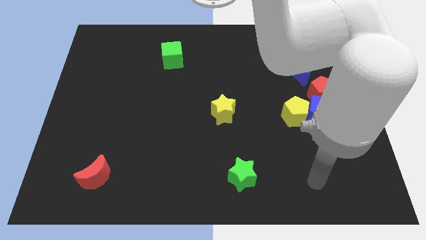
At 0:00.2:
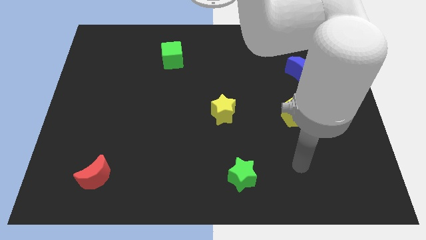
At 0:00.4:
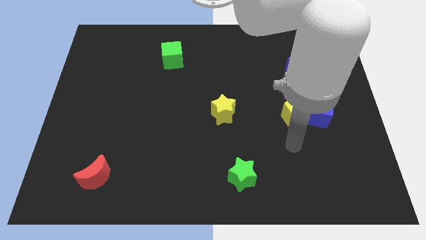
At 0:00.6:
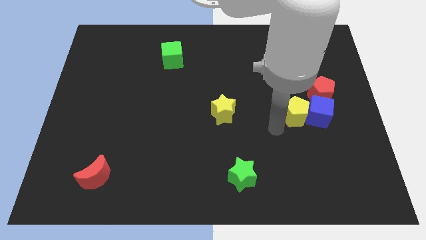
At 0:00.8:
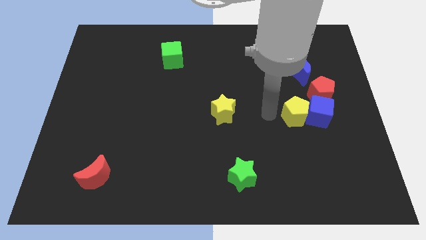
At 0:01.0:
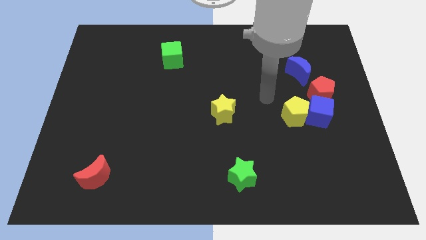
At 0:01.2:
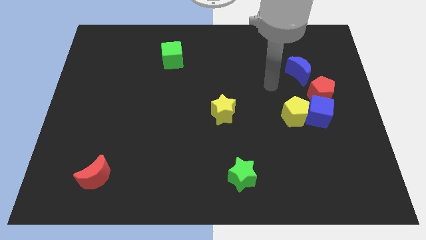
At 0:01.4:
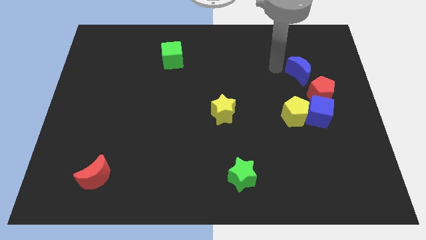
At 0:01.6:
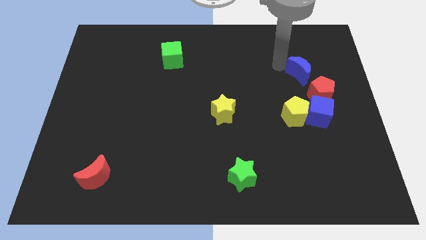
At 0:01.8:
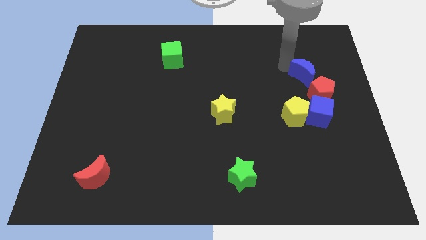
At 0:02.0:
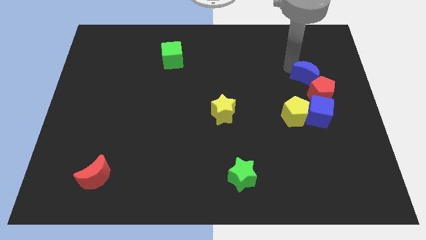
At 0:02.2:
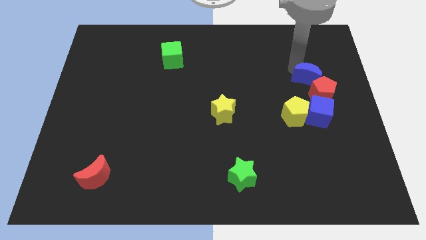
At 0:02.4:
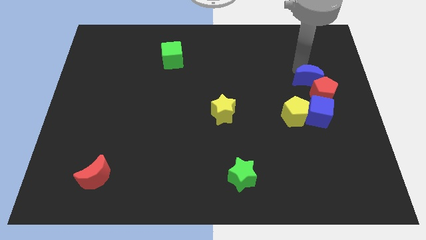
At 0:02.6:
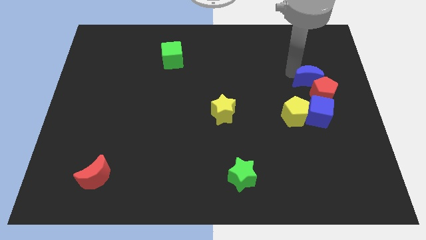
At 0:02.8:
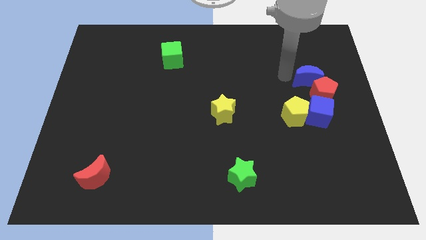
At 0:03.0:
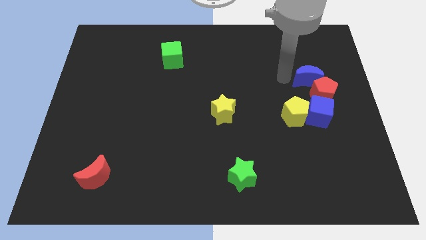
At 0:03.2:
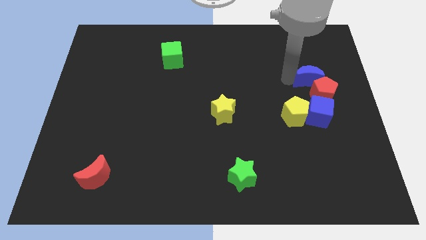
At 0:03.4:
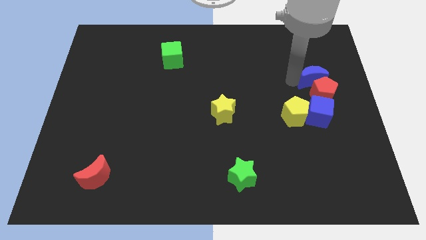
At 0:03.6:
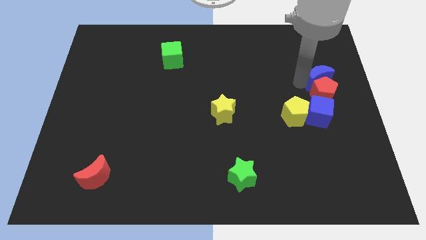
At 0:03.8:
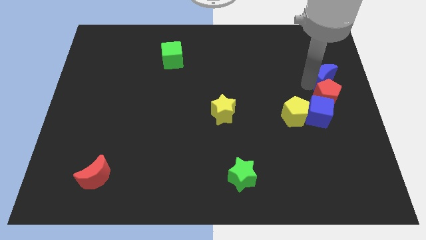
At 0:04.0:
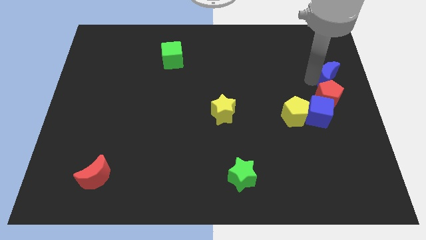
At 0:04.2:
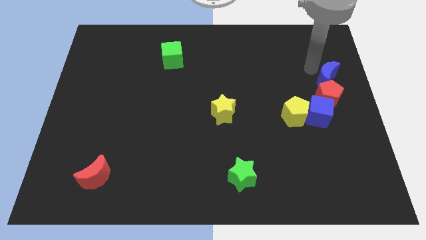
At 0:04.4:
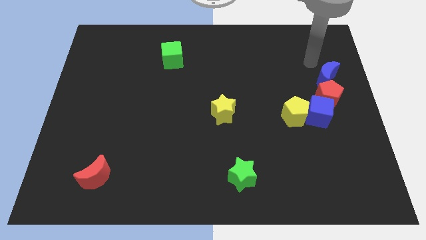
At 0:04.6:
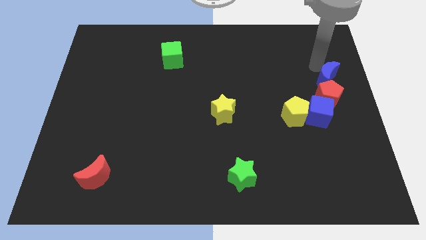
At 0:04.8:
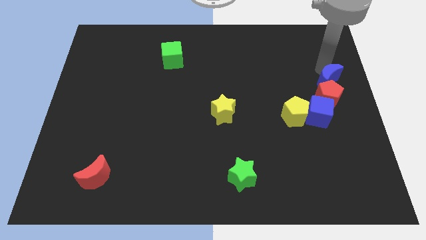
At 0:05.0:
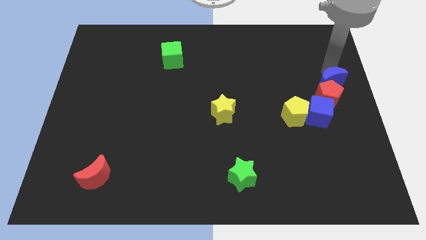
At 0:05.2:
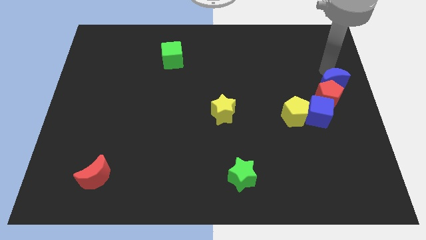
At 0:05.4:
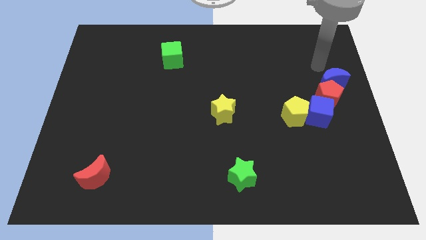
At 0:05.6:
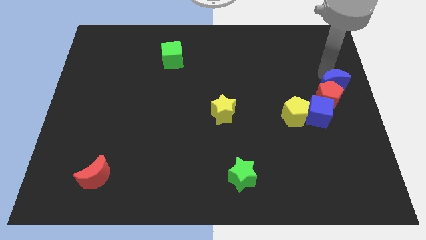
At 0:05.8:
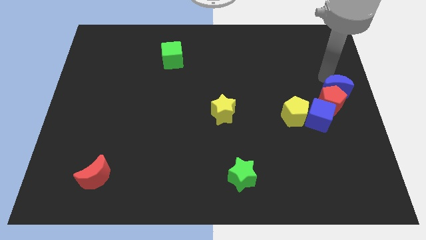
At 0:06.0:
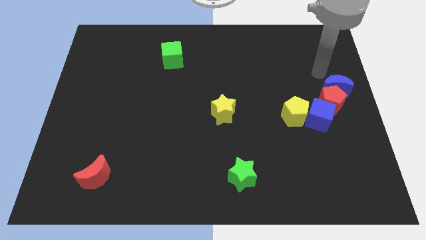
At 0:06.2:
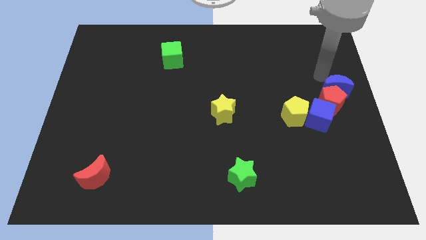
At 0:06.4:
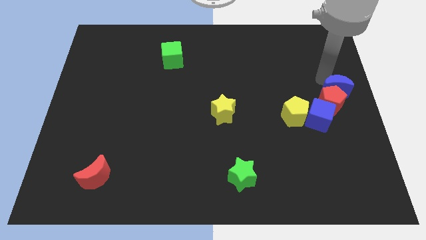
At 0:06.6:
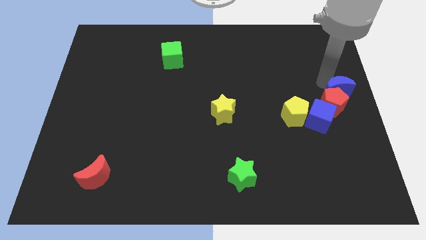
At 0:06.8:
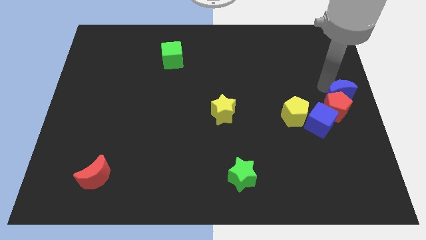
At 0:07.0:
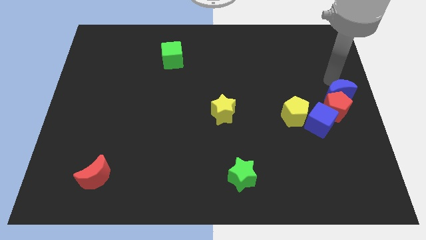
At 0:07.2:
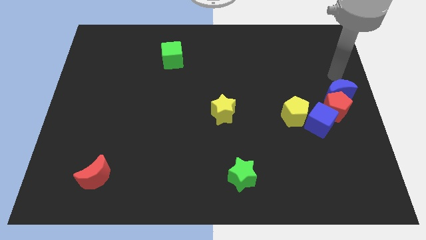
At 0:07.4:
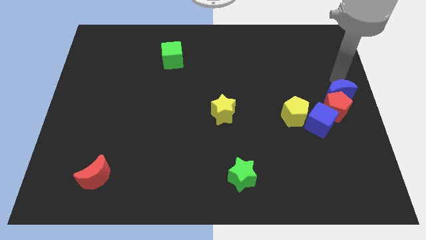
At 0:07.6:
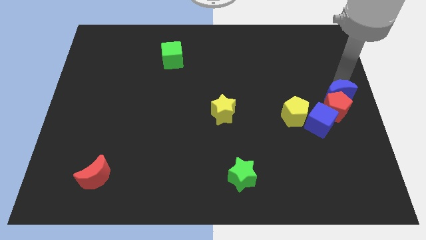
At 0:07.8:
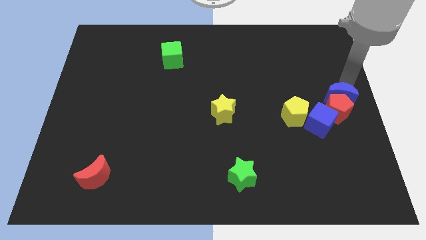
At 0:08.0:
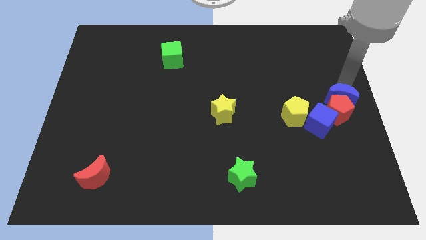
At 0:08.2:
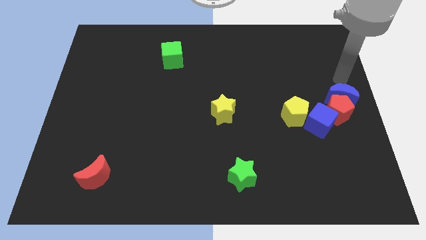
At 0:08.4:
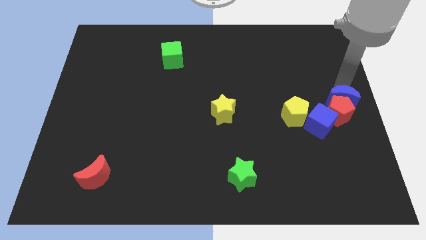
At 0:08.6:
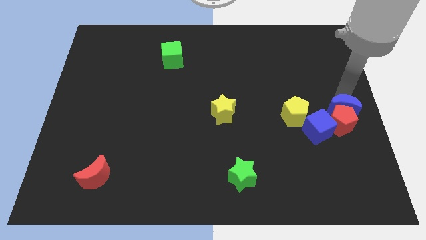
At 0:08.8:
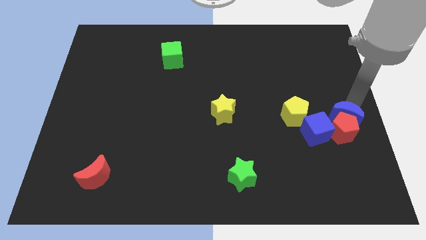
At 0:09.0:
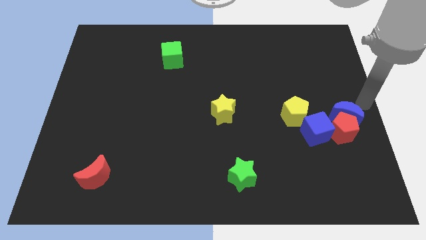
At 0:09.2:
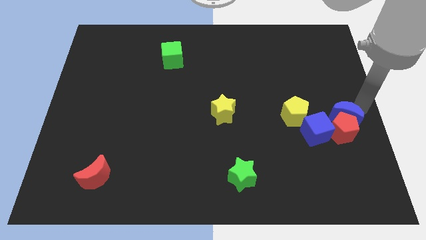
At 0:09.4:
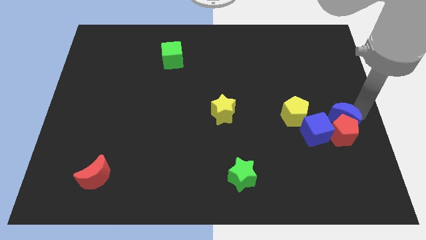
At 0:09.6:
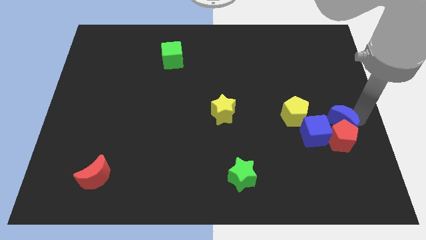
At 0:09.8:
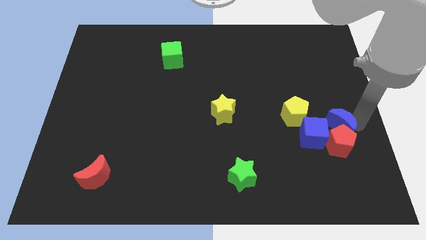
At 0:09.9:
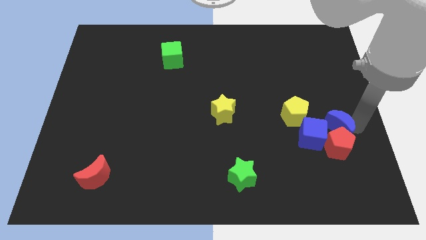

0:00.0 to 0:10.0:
push the blue moon to the bottom right of the yellow pentagon

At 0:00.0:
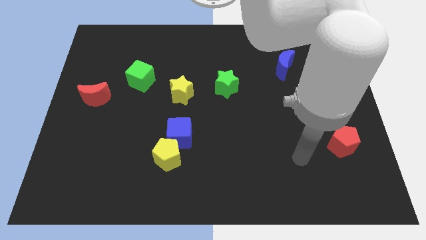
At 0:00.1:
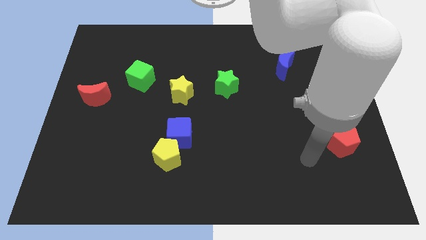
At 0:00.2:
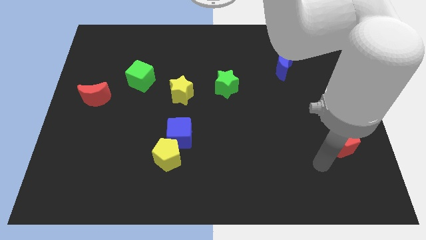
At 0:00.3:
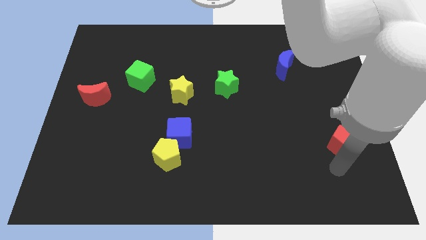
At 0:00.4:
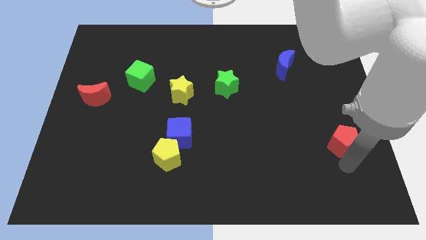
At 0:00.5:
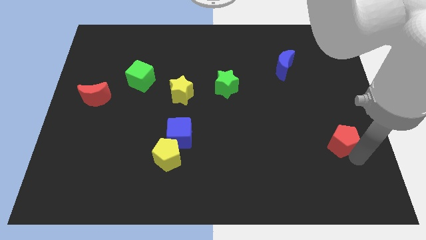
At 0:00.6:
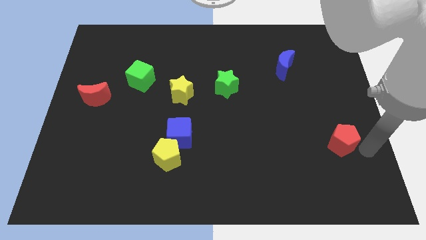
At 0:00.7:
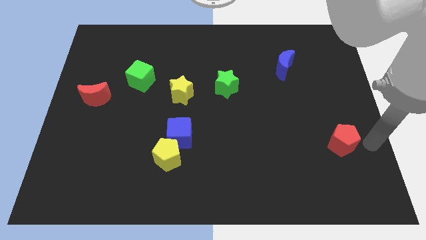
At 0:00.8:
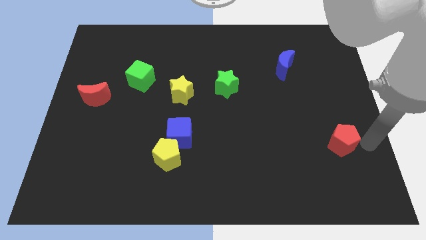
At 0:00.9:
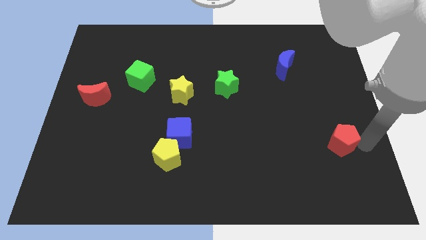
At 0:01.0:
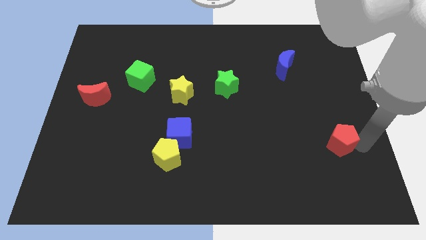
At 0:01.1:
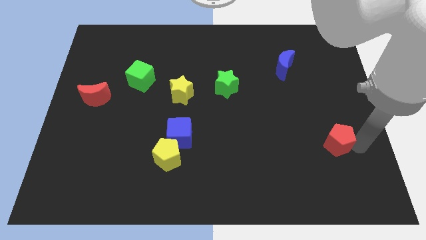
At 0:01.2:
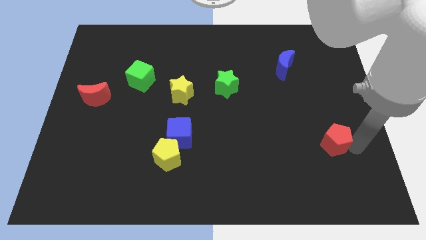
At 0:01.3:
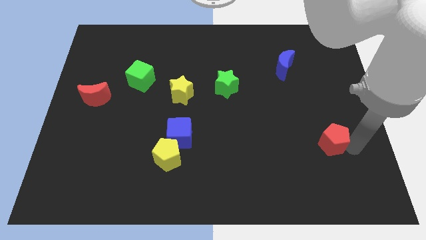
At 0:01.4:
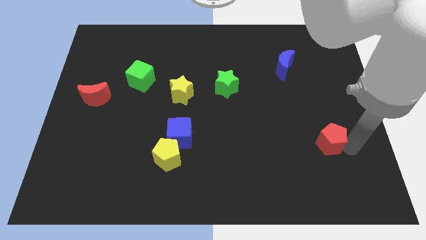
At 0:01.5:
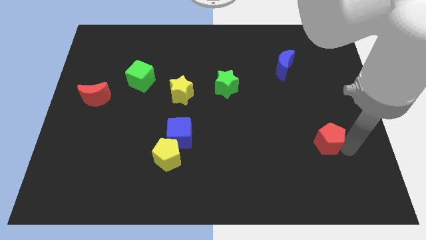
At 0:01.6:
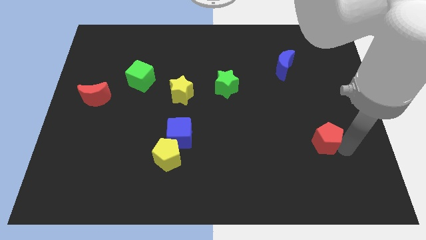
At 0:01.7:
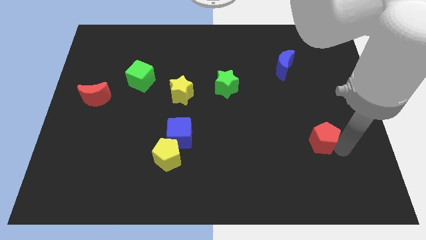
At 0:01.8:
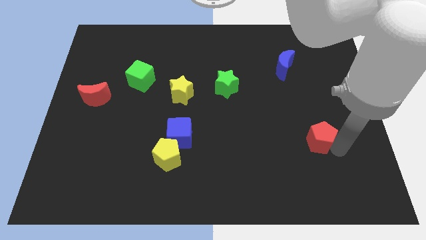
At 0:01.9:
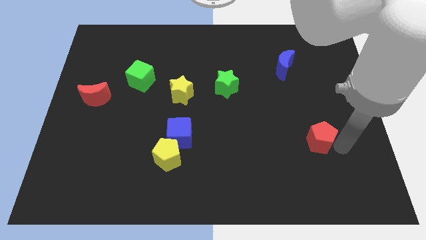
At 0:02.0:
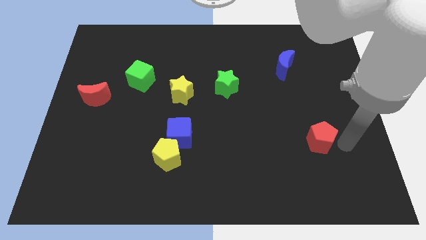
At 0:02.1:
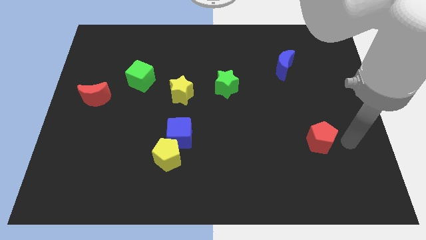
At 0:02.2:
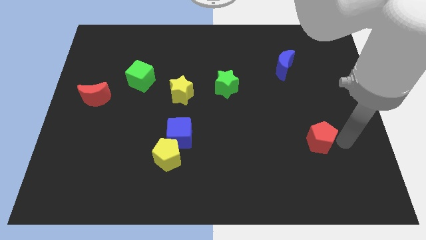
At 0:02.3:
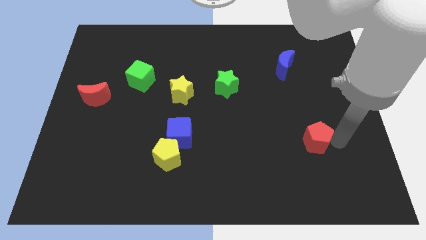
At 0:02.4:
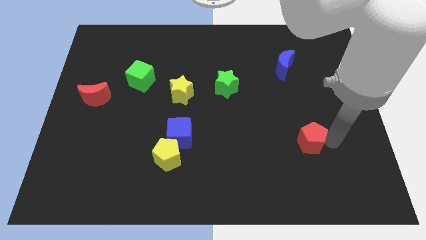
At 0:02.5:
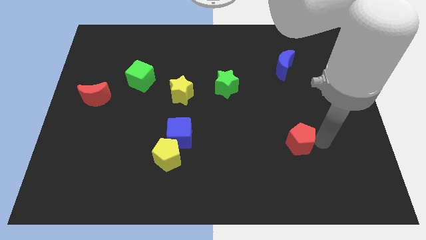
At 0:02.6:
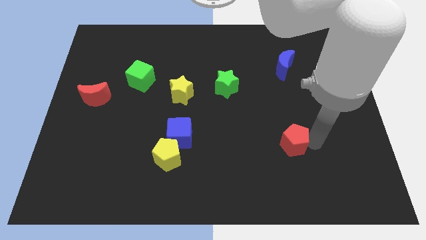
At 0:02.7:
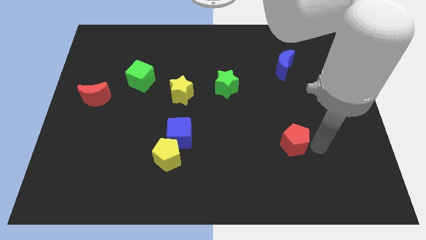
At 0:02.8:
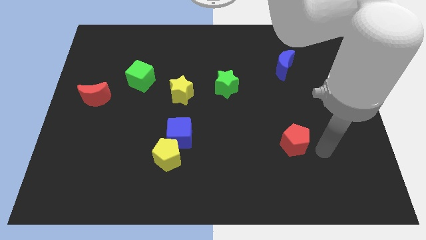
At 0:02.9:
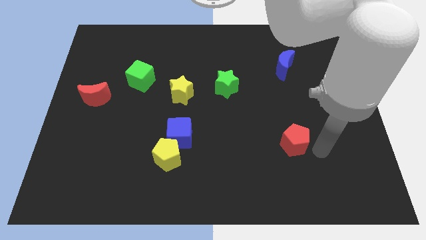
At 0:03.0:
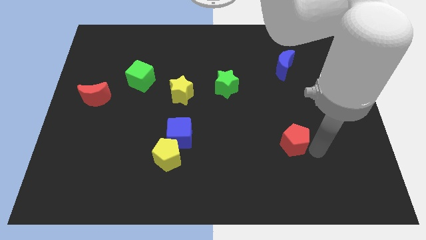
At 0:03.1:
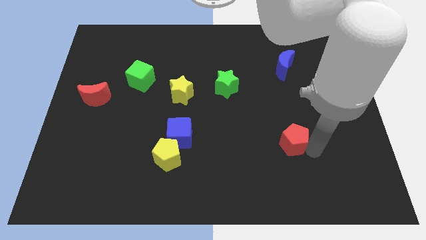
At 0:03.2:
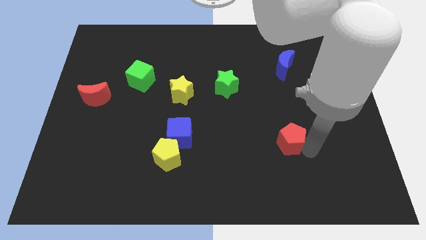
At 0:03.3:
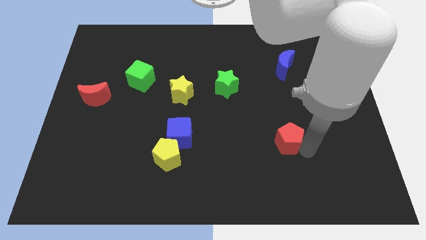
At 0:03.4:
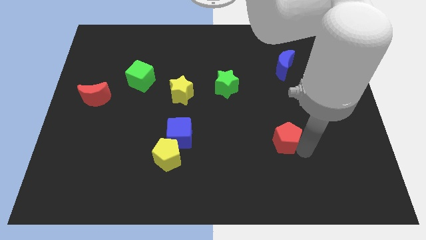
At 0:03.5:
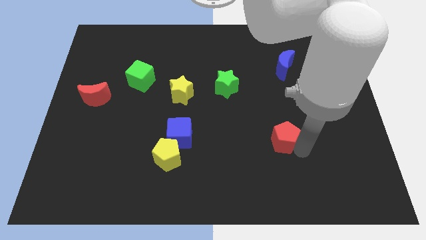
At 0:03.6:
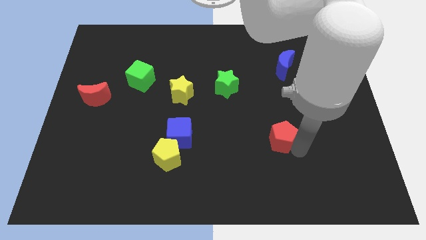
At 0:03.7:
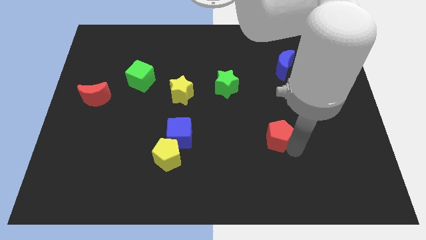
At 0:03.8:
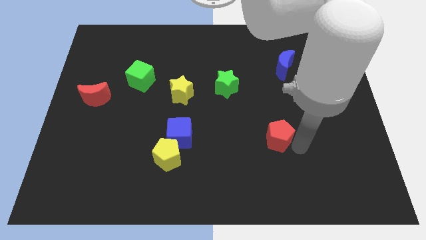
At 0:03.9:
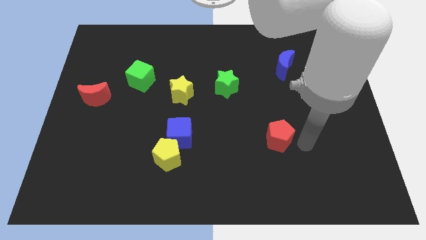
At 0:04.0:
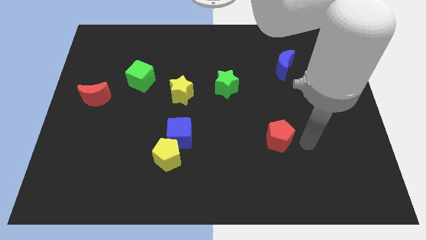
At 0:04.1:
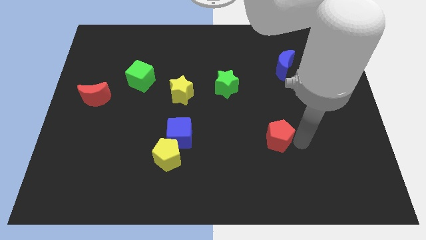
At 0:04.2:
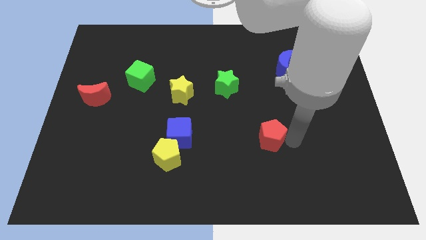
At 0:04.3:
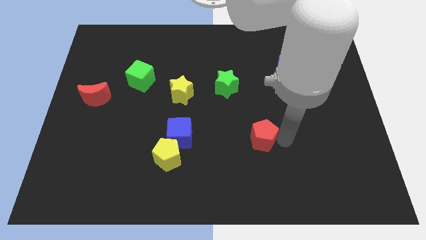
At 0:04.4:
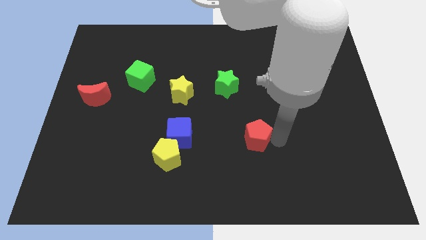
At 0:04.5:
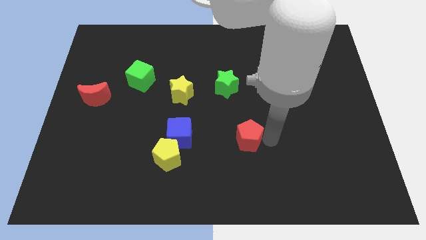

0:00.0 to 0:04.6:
put the red pentagon just right of the blue cube
